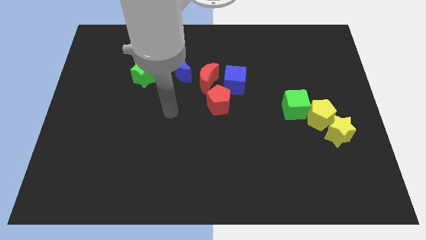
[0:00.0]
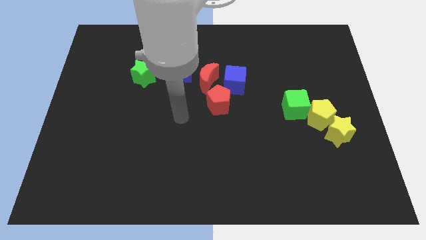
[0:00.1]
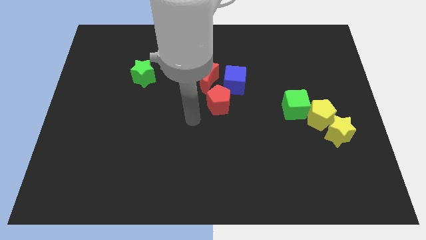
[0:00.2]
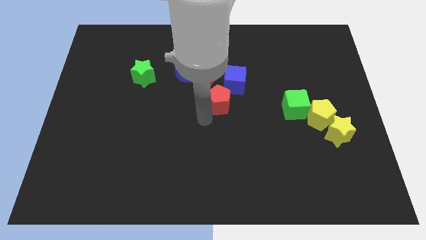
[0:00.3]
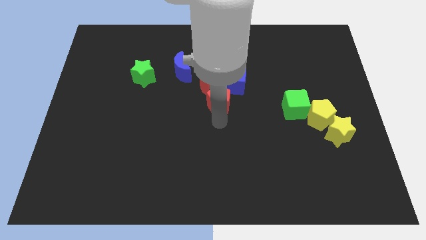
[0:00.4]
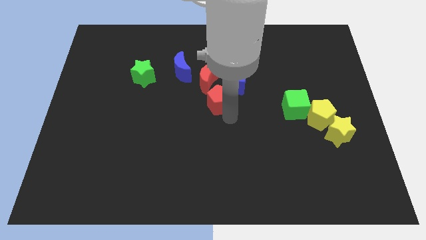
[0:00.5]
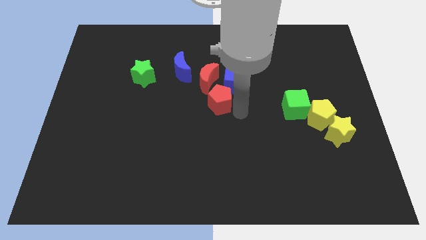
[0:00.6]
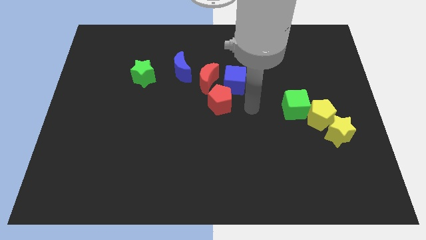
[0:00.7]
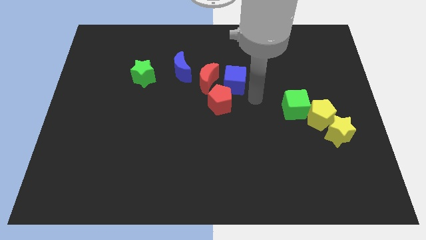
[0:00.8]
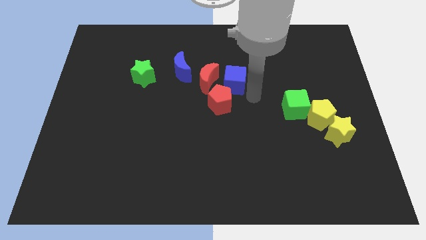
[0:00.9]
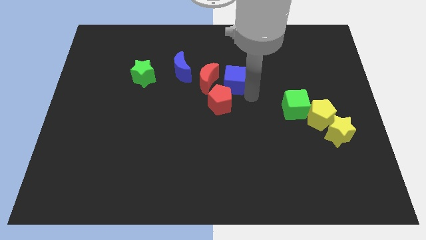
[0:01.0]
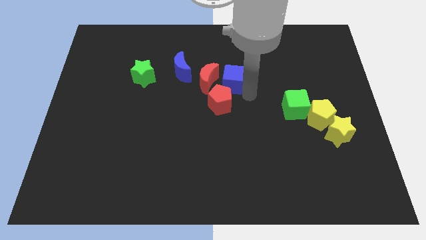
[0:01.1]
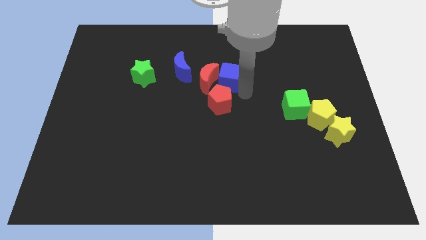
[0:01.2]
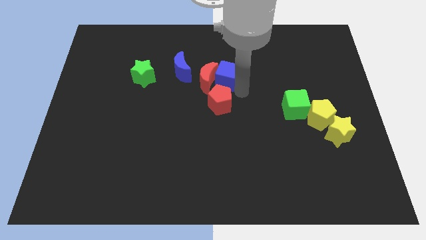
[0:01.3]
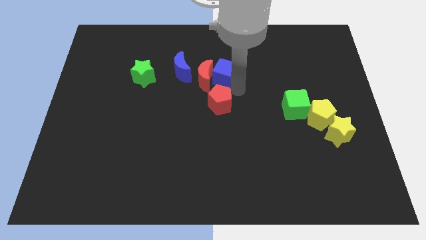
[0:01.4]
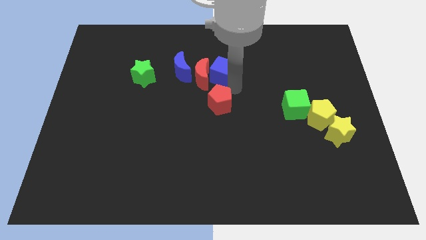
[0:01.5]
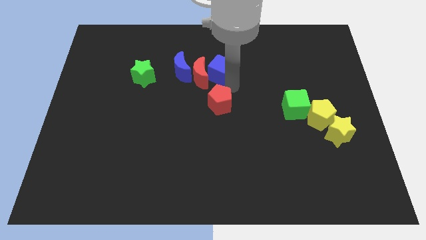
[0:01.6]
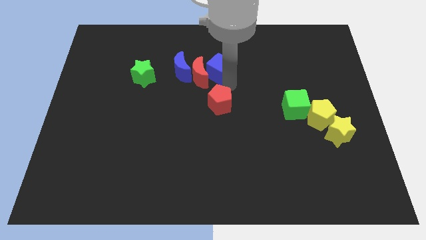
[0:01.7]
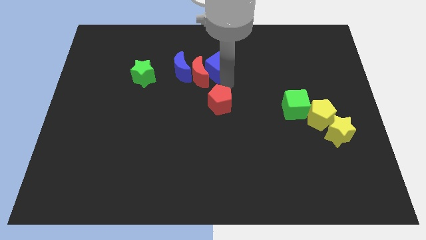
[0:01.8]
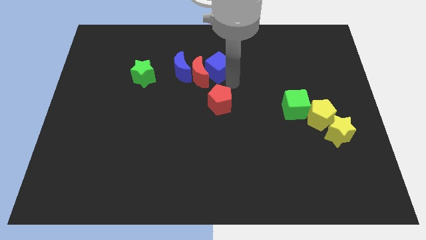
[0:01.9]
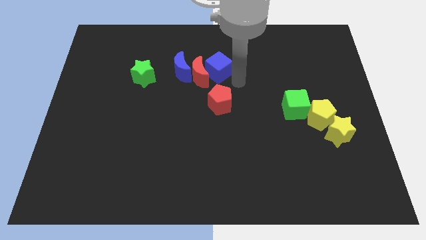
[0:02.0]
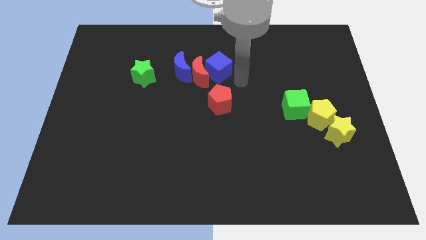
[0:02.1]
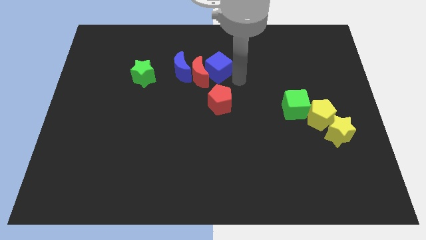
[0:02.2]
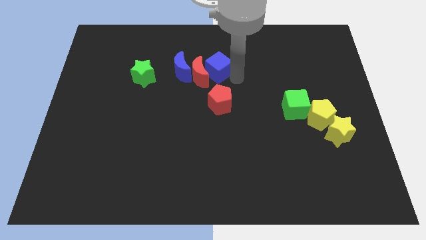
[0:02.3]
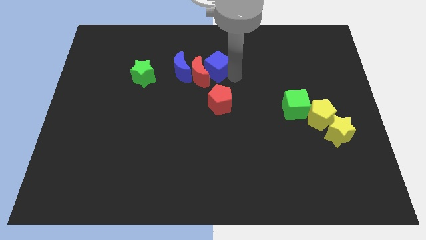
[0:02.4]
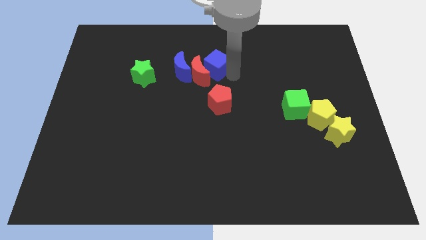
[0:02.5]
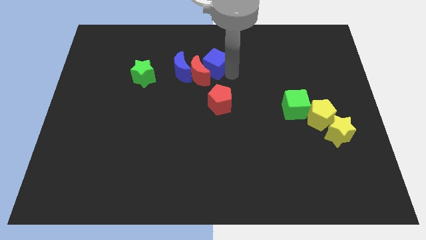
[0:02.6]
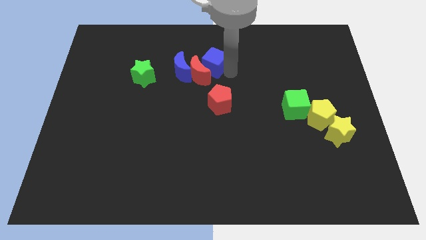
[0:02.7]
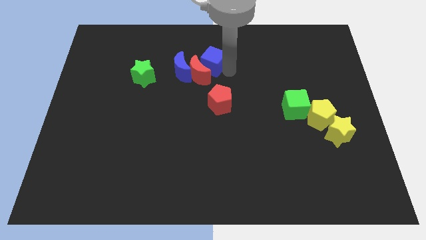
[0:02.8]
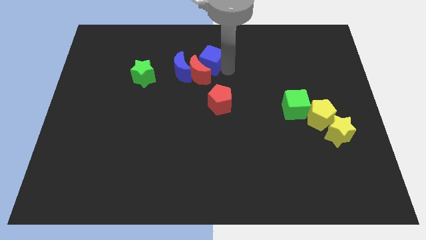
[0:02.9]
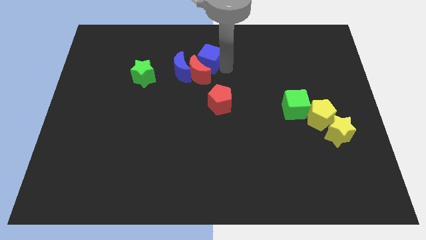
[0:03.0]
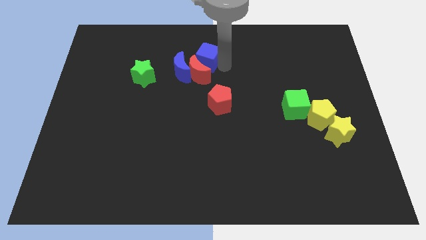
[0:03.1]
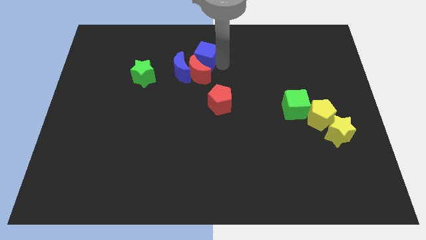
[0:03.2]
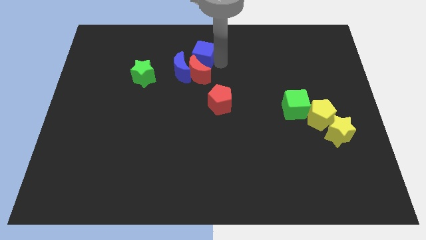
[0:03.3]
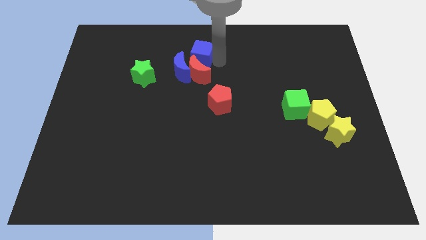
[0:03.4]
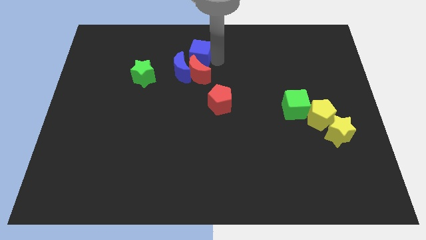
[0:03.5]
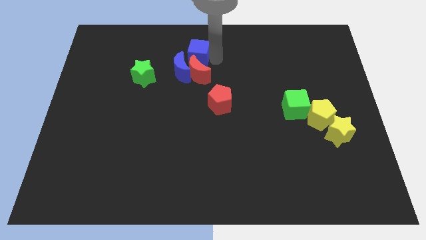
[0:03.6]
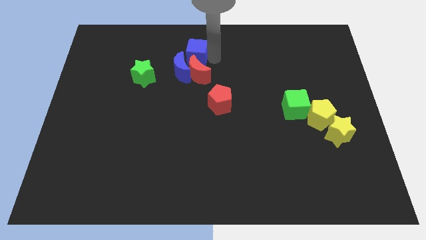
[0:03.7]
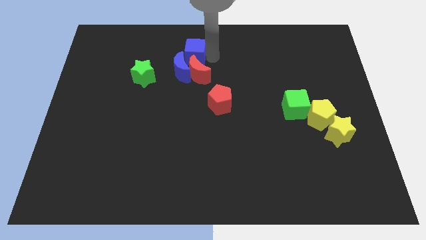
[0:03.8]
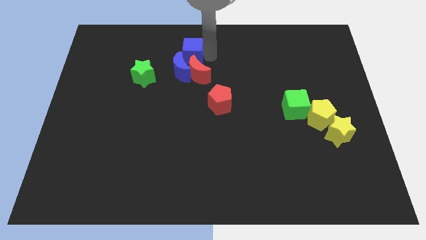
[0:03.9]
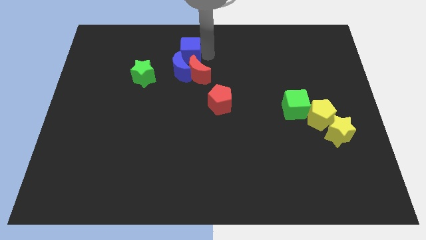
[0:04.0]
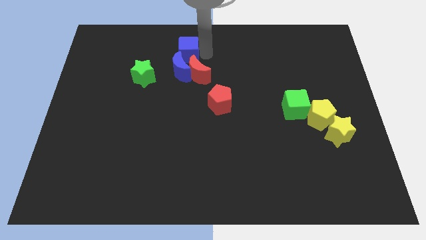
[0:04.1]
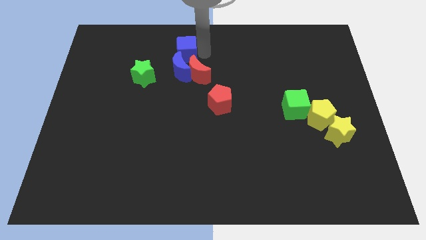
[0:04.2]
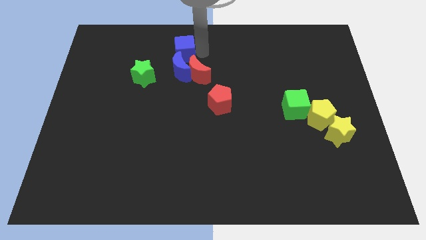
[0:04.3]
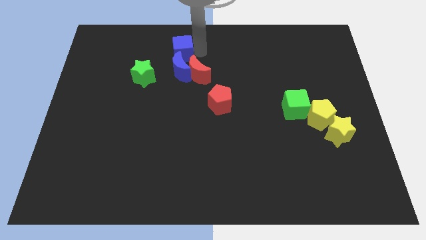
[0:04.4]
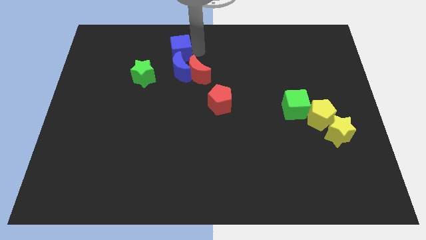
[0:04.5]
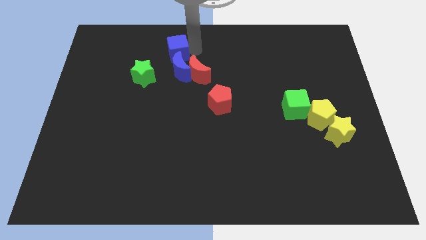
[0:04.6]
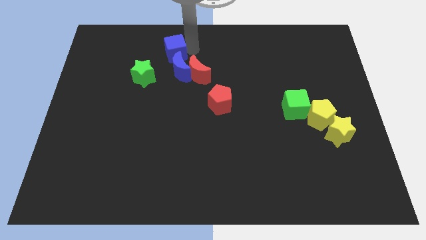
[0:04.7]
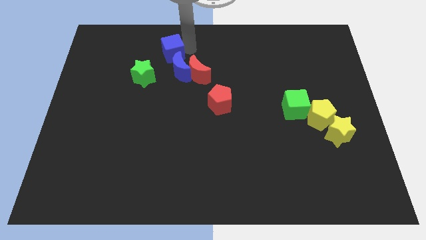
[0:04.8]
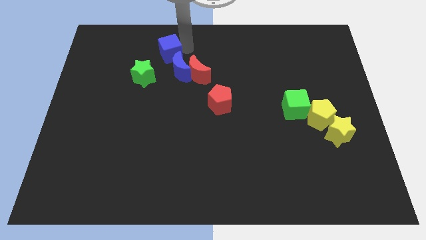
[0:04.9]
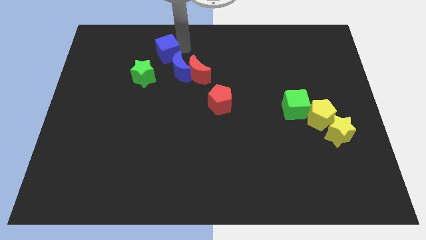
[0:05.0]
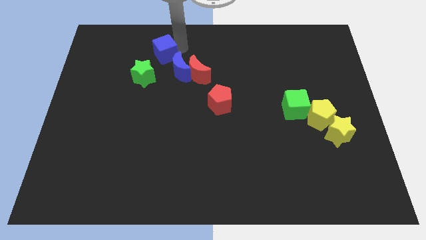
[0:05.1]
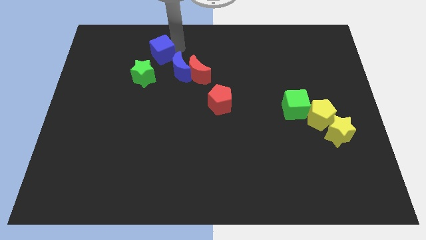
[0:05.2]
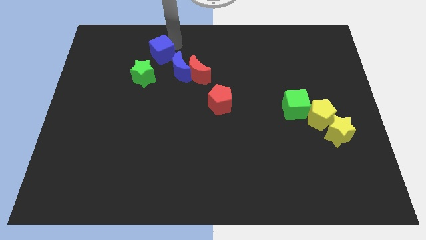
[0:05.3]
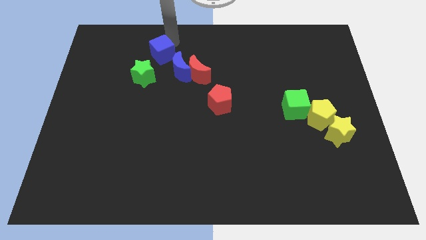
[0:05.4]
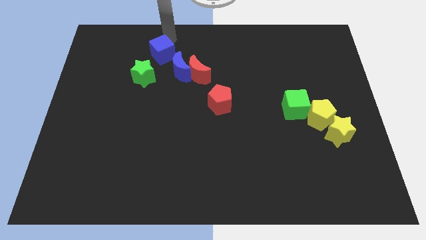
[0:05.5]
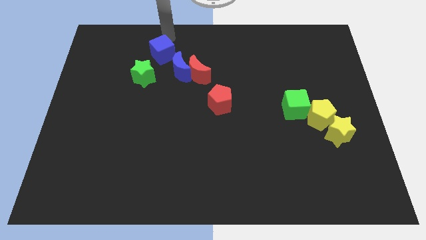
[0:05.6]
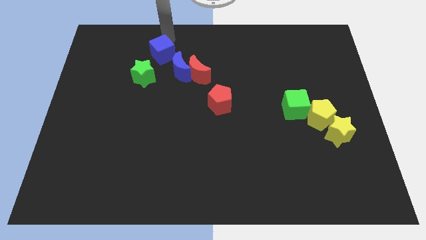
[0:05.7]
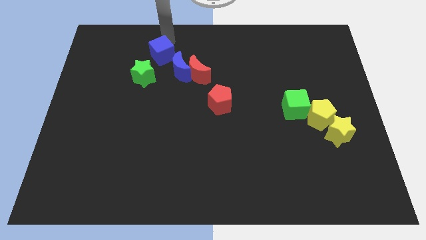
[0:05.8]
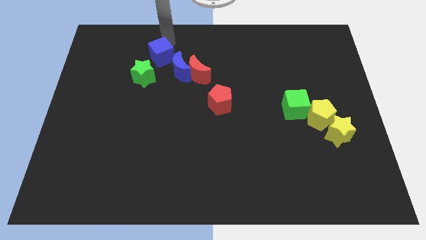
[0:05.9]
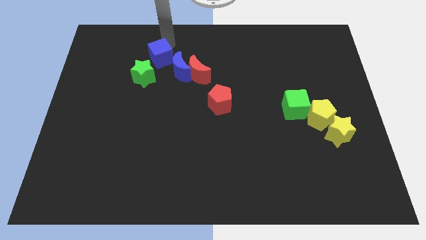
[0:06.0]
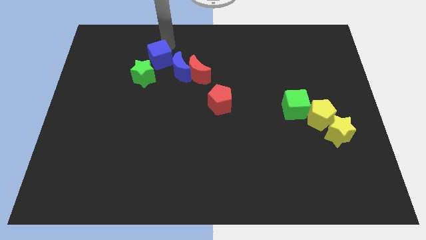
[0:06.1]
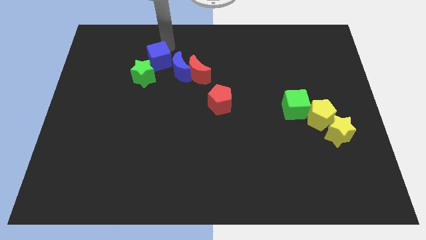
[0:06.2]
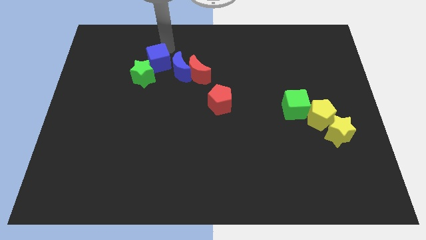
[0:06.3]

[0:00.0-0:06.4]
put the blue cube towards the green star
